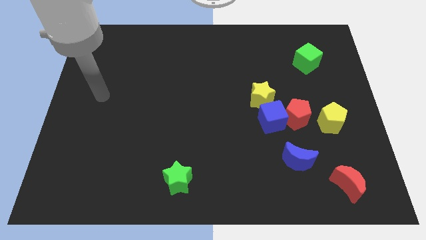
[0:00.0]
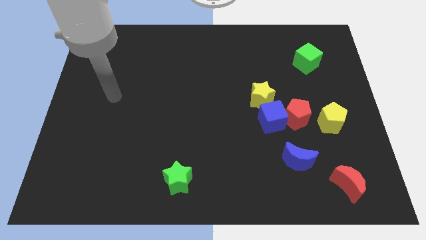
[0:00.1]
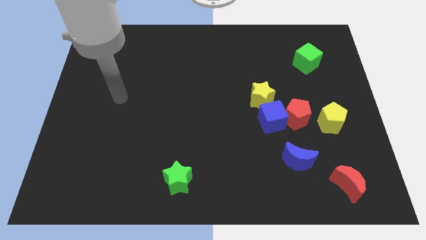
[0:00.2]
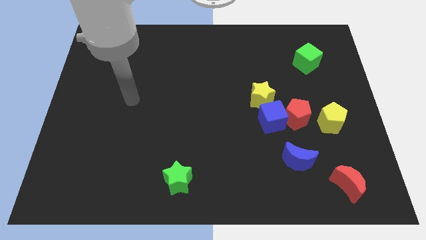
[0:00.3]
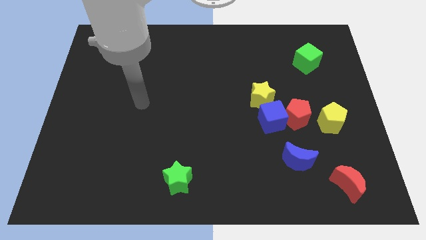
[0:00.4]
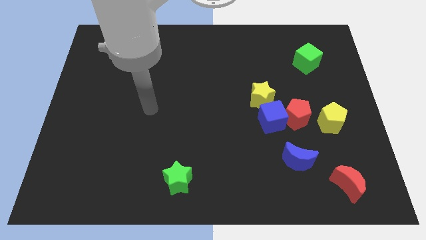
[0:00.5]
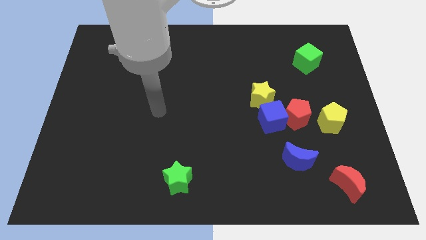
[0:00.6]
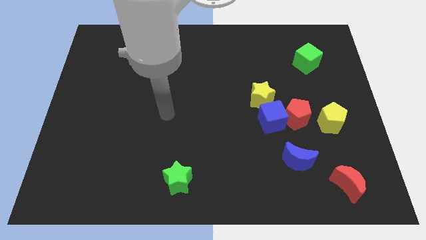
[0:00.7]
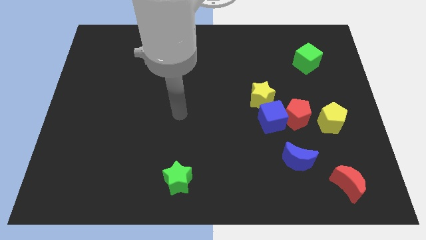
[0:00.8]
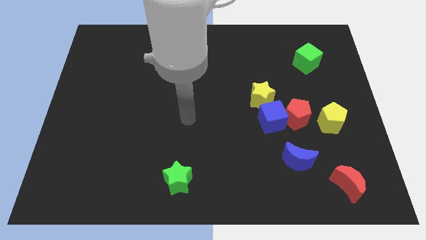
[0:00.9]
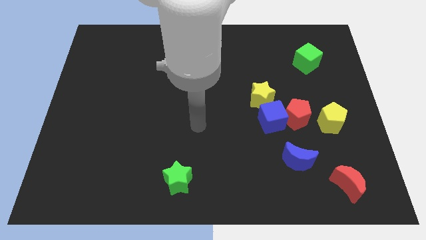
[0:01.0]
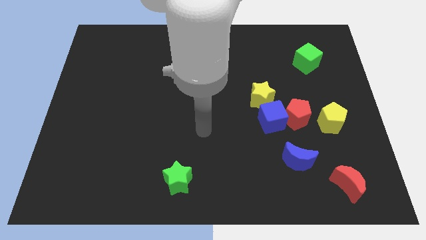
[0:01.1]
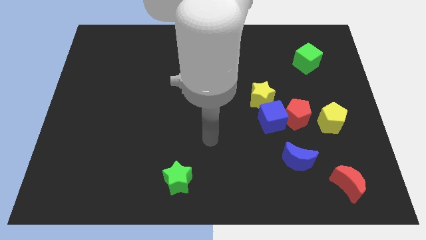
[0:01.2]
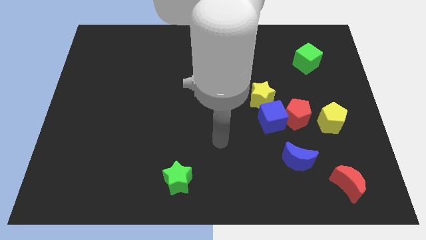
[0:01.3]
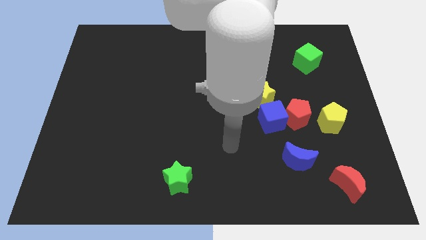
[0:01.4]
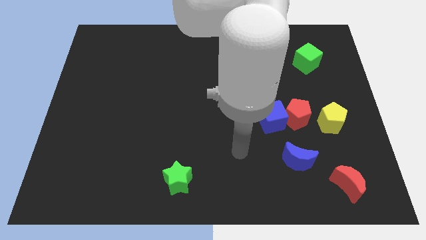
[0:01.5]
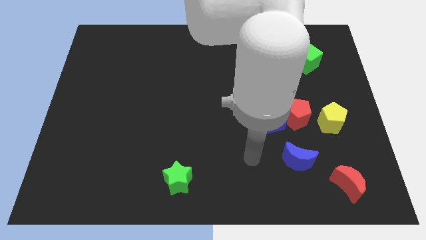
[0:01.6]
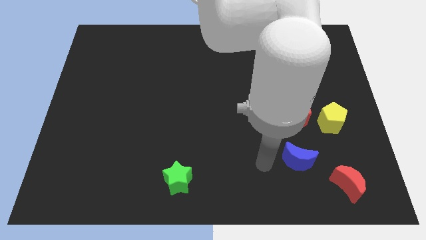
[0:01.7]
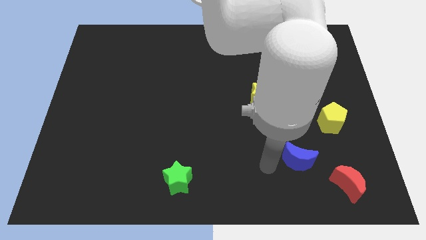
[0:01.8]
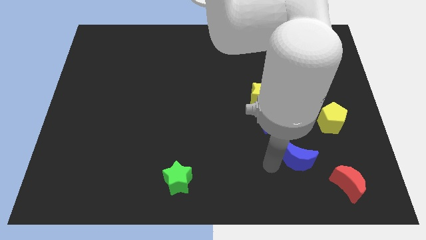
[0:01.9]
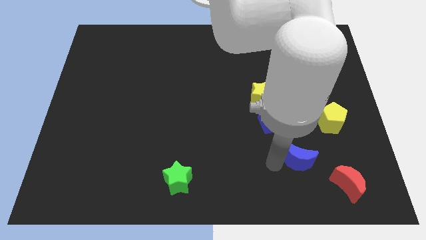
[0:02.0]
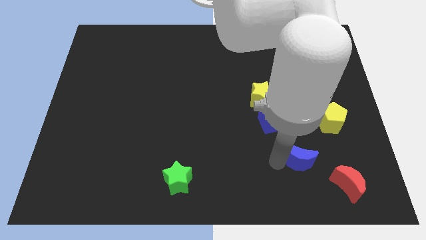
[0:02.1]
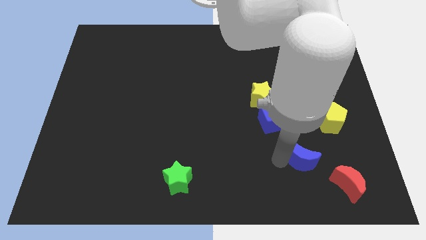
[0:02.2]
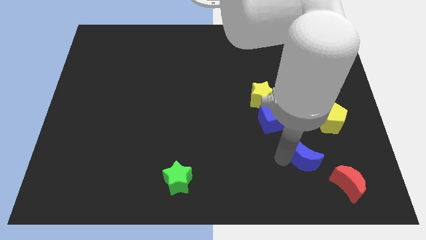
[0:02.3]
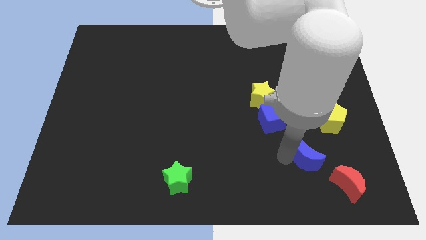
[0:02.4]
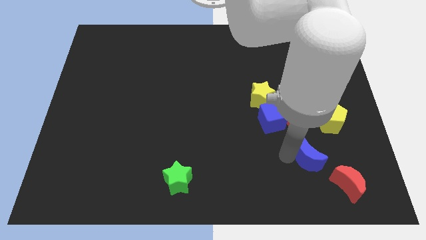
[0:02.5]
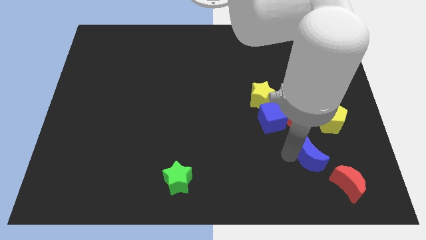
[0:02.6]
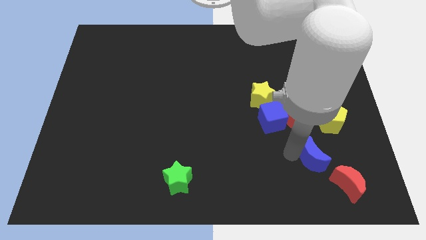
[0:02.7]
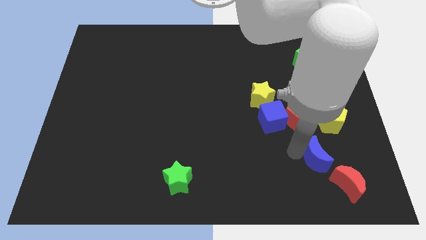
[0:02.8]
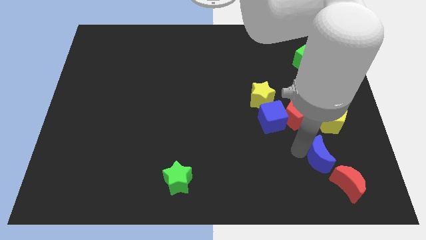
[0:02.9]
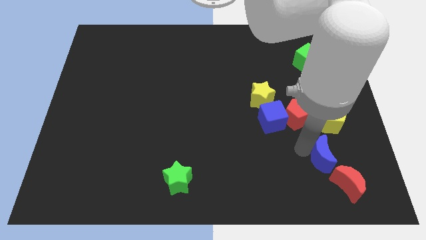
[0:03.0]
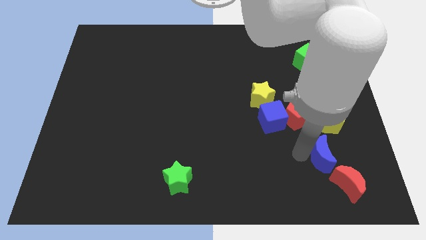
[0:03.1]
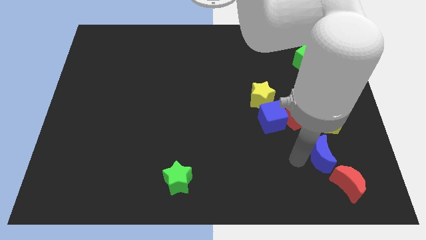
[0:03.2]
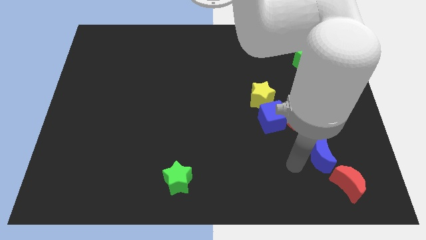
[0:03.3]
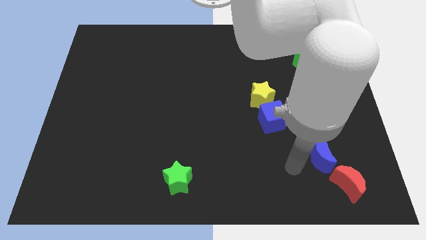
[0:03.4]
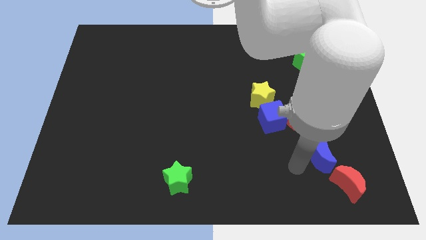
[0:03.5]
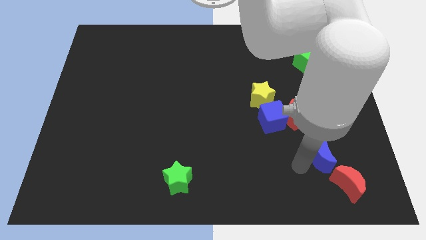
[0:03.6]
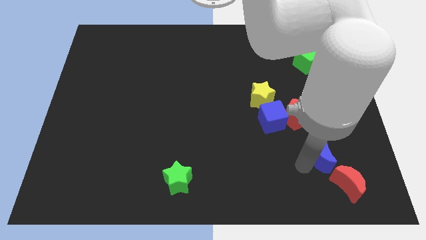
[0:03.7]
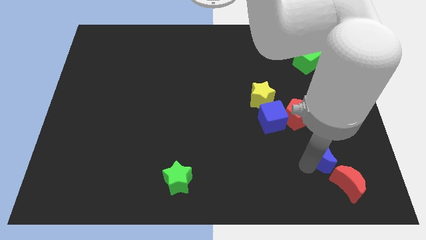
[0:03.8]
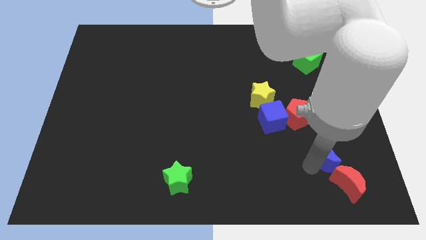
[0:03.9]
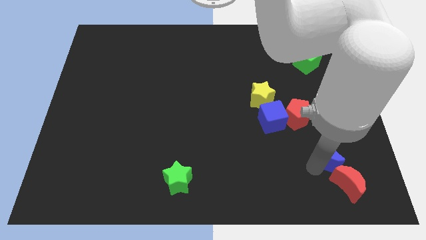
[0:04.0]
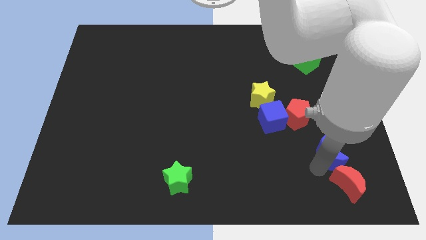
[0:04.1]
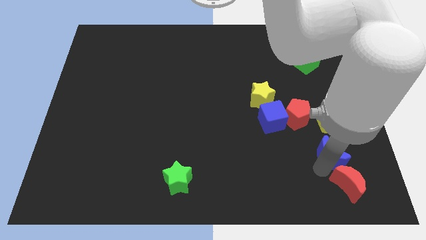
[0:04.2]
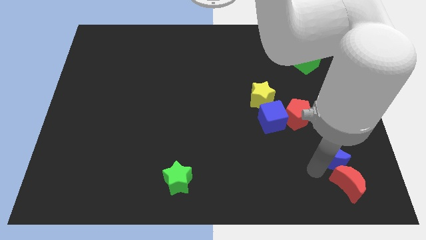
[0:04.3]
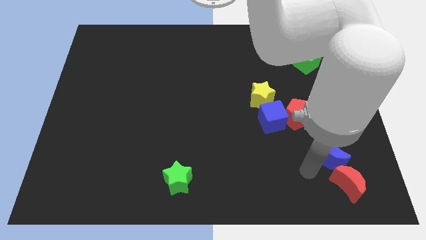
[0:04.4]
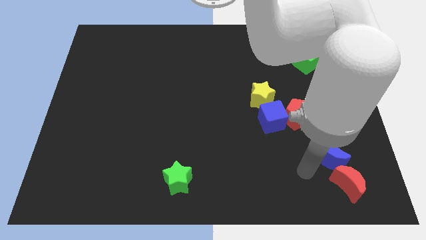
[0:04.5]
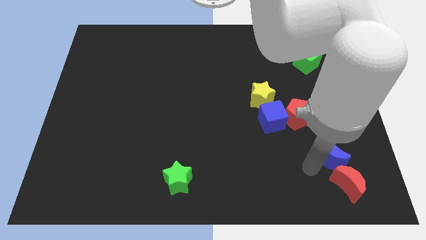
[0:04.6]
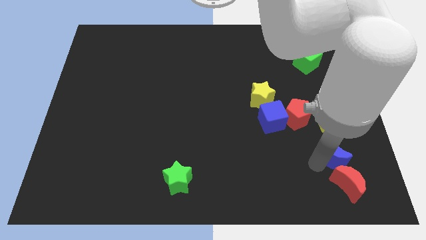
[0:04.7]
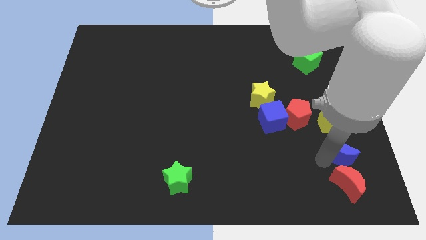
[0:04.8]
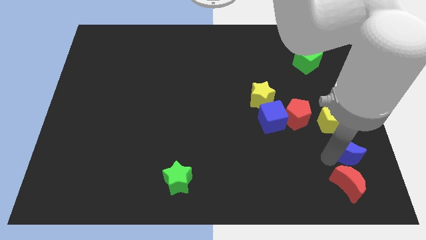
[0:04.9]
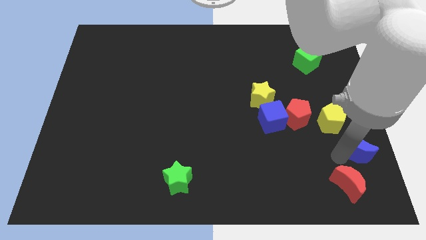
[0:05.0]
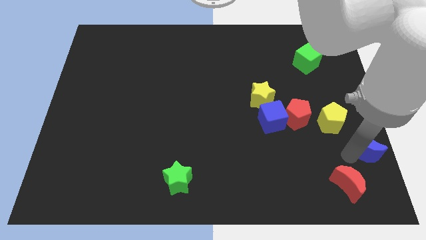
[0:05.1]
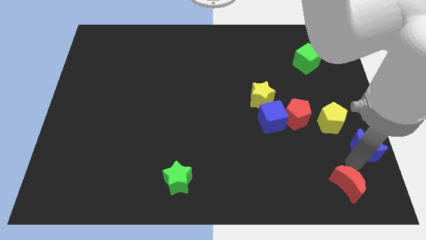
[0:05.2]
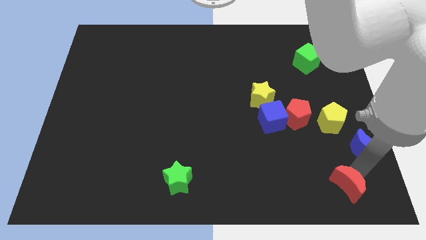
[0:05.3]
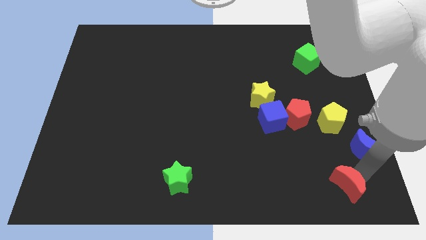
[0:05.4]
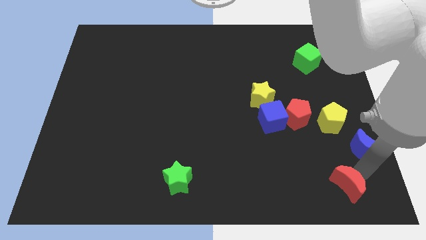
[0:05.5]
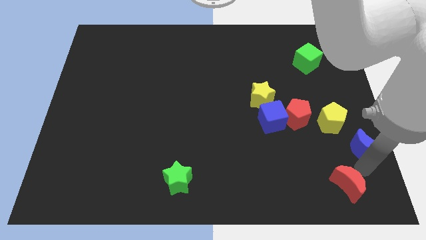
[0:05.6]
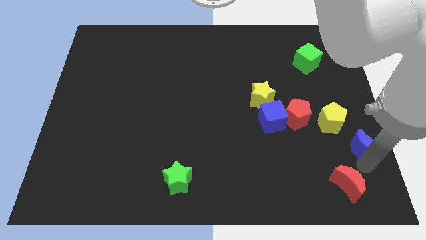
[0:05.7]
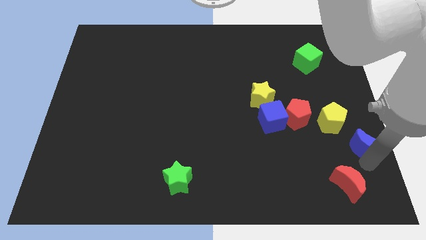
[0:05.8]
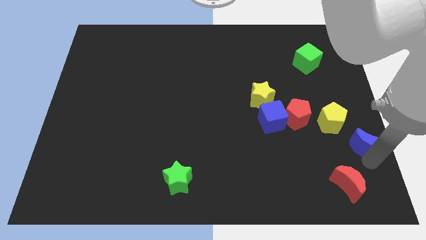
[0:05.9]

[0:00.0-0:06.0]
move the blue moon to the center right

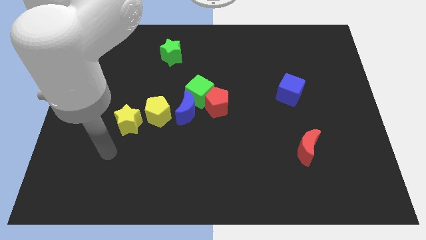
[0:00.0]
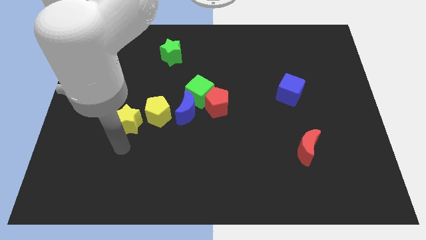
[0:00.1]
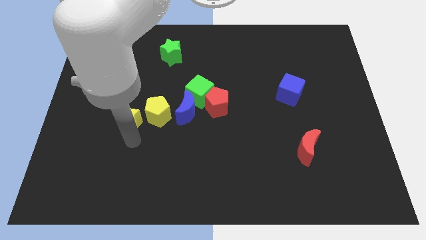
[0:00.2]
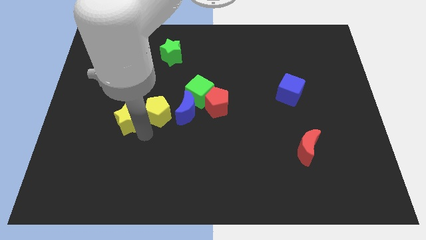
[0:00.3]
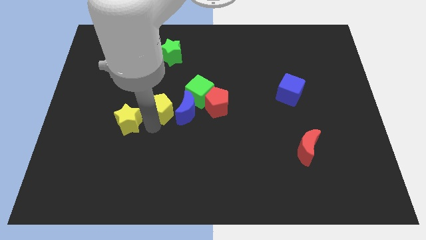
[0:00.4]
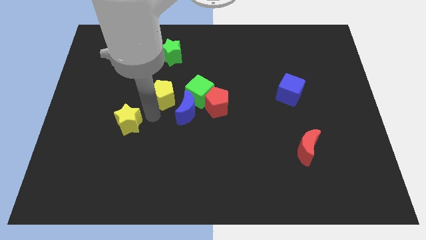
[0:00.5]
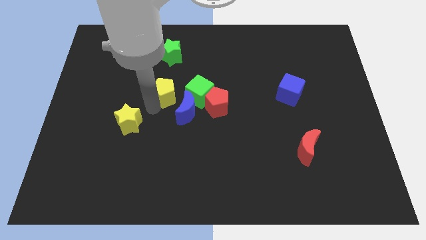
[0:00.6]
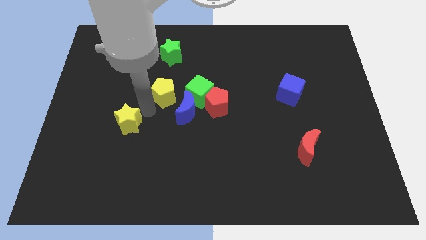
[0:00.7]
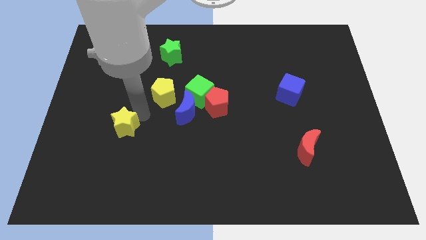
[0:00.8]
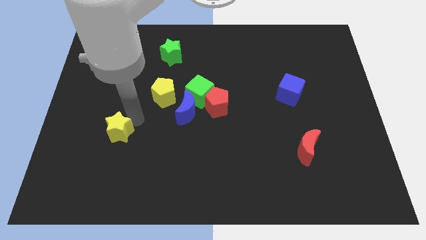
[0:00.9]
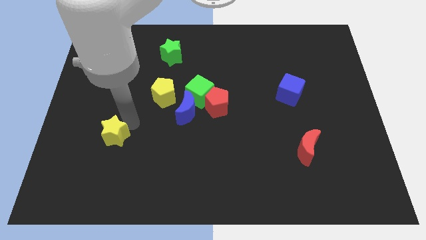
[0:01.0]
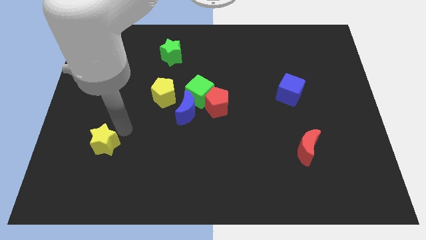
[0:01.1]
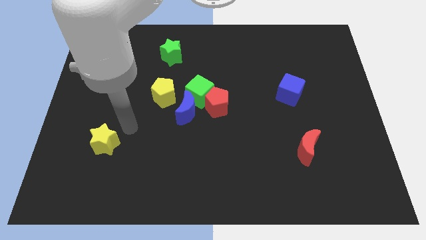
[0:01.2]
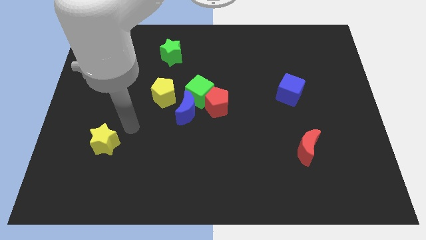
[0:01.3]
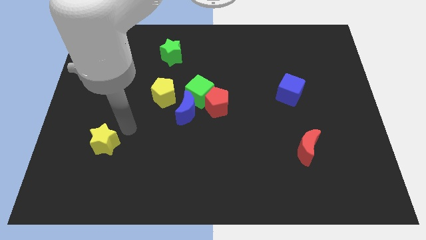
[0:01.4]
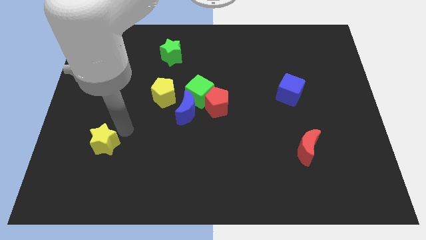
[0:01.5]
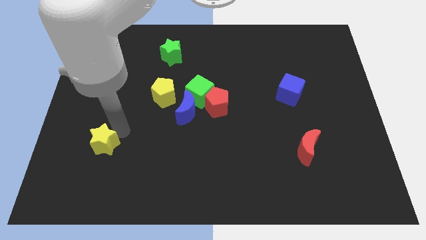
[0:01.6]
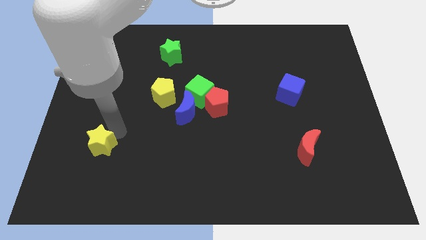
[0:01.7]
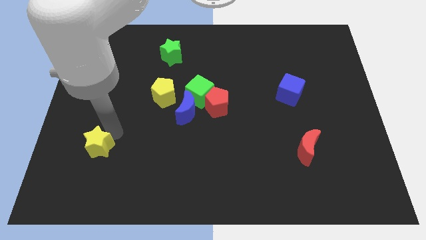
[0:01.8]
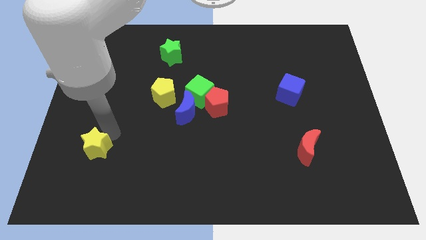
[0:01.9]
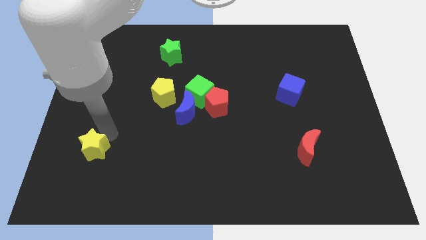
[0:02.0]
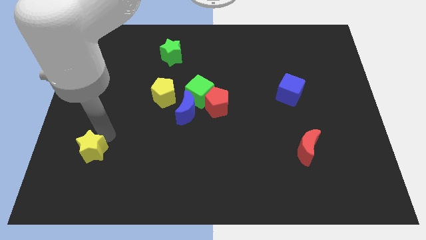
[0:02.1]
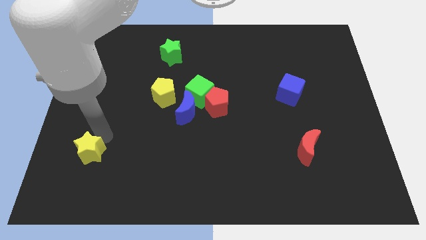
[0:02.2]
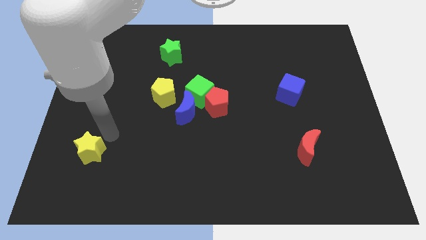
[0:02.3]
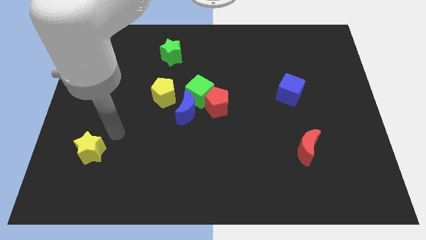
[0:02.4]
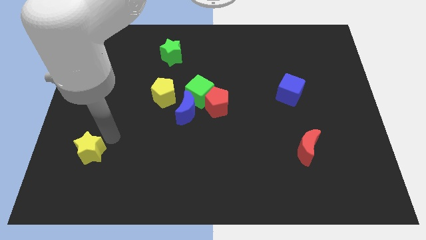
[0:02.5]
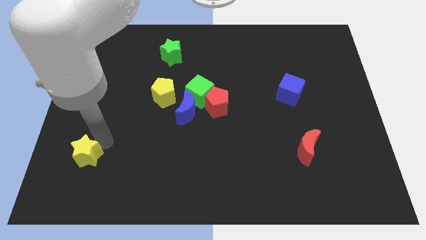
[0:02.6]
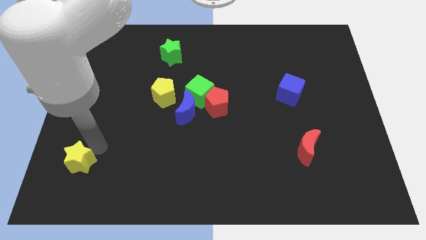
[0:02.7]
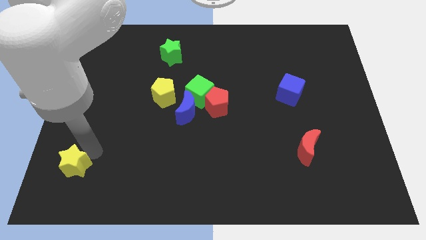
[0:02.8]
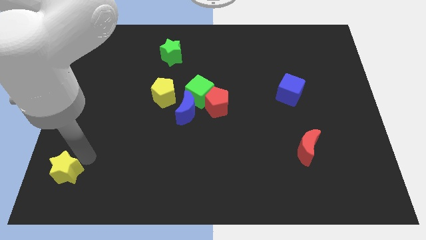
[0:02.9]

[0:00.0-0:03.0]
move the yellow star to the bottom left
